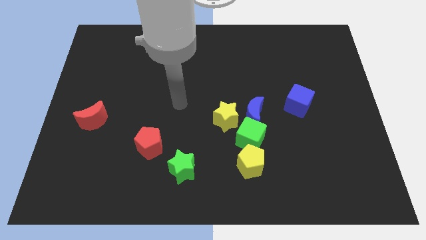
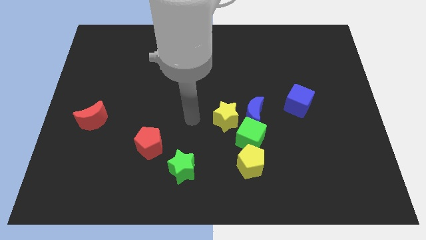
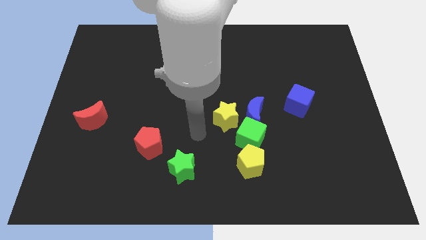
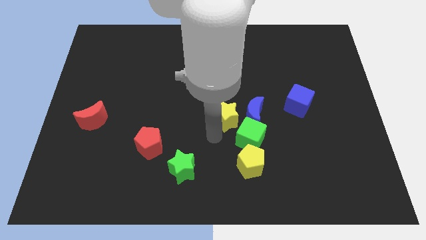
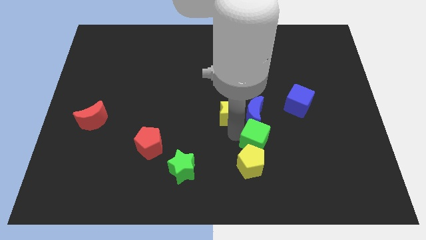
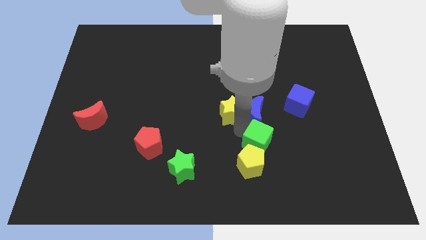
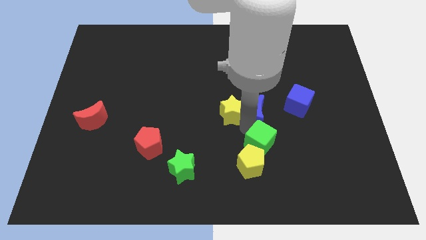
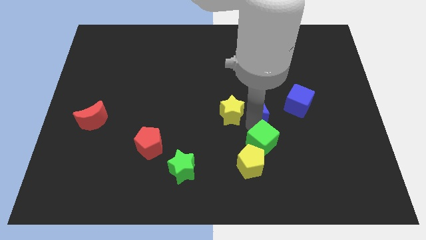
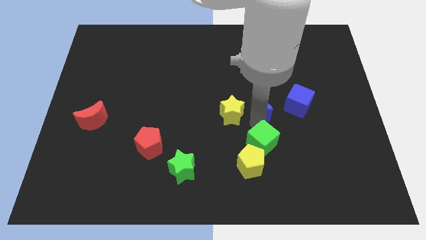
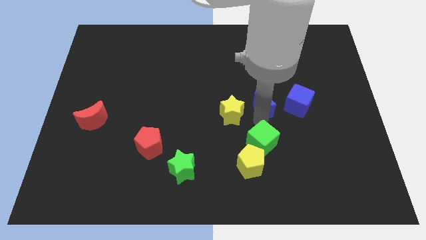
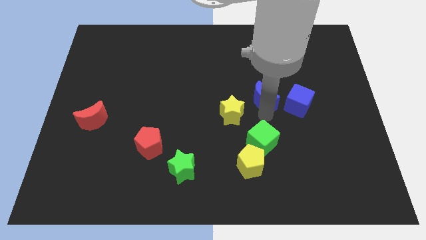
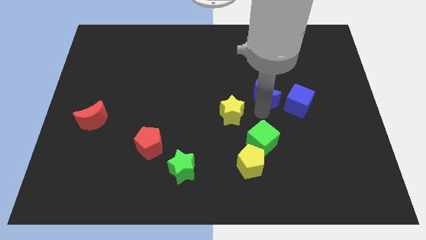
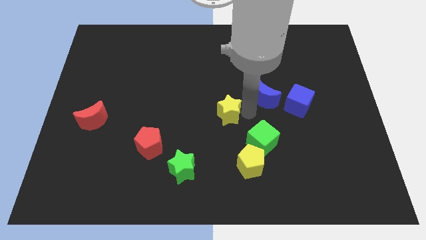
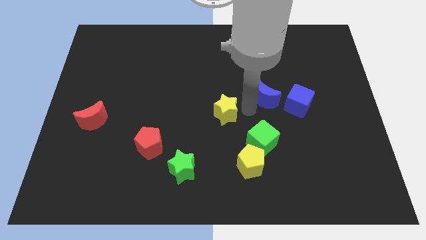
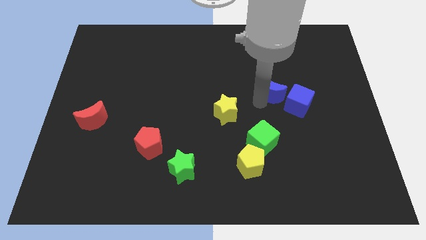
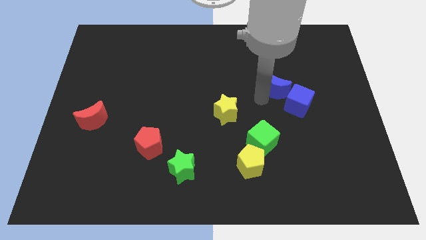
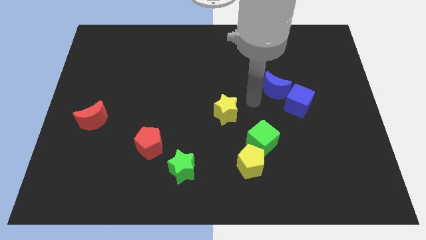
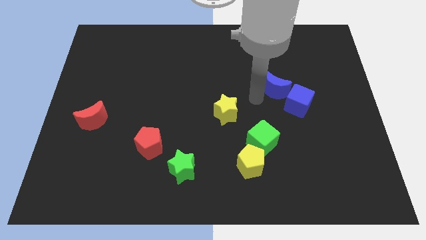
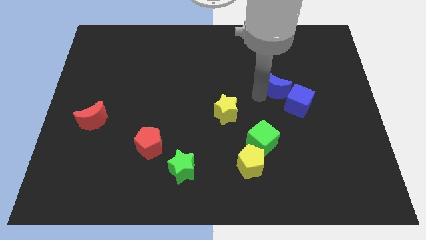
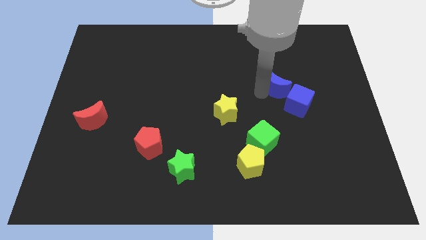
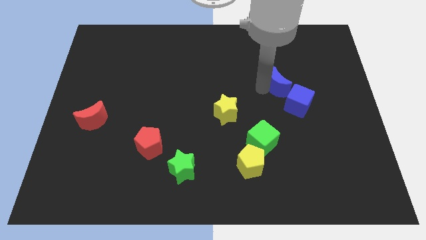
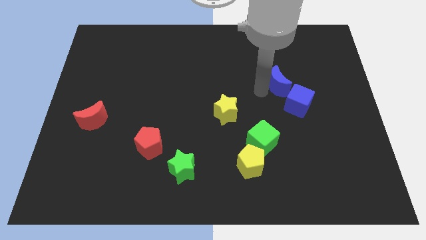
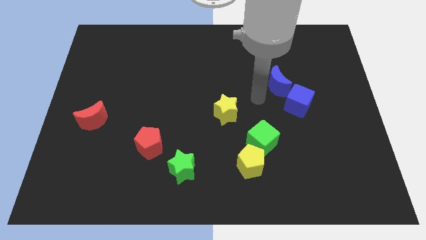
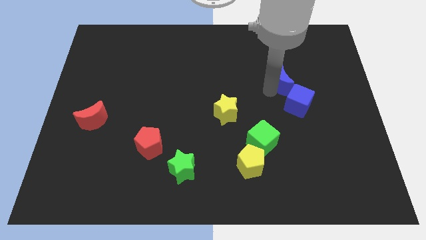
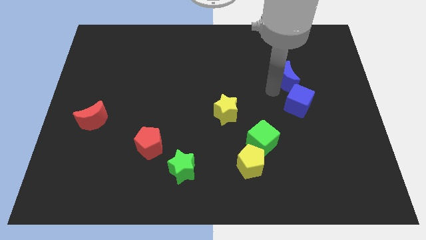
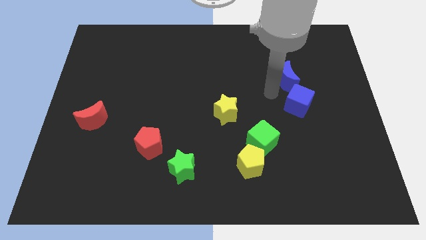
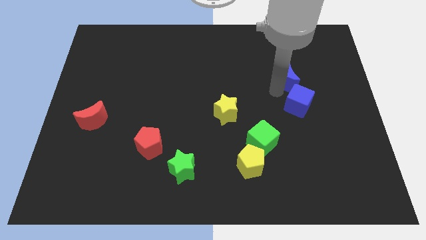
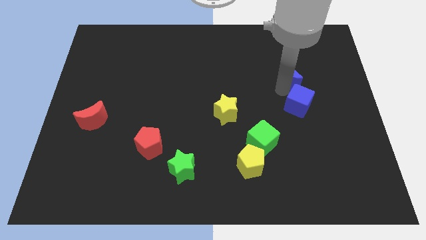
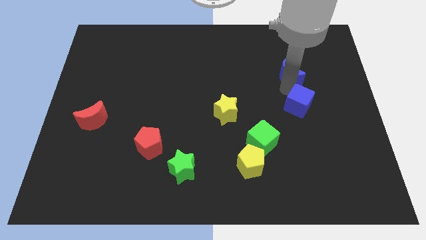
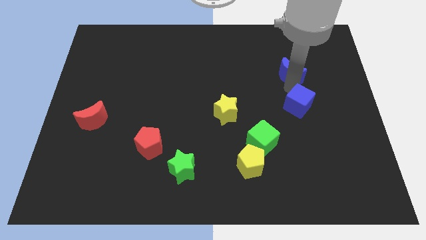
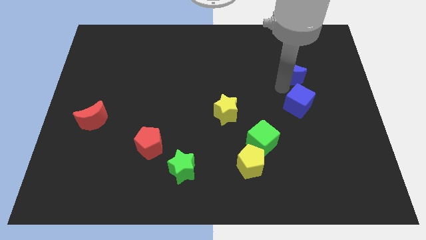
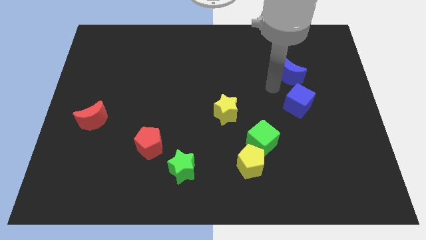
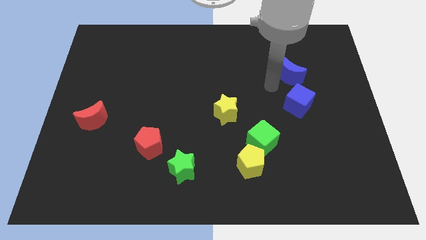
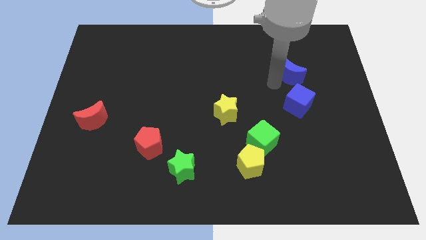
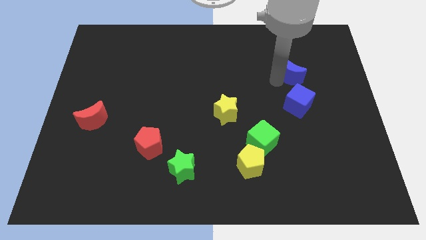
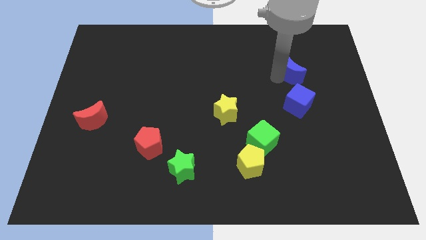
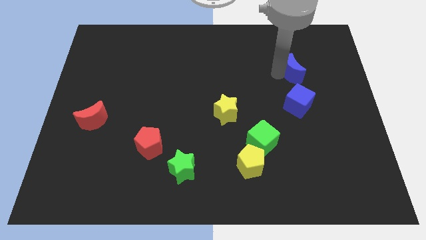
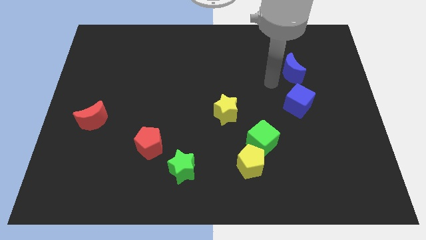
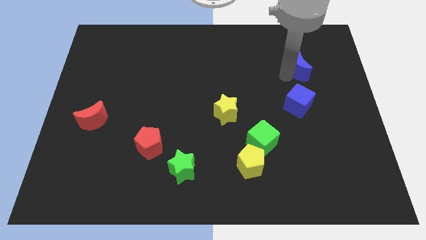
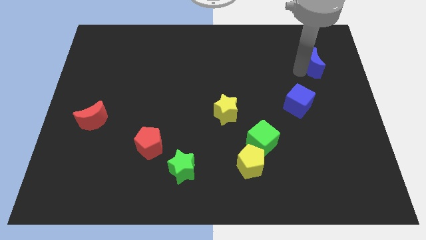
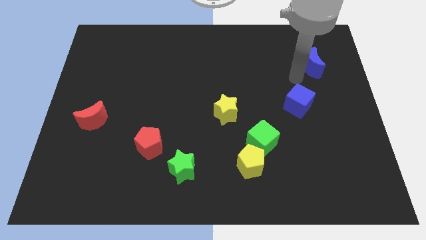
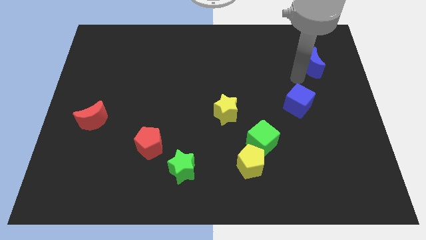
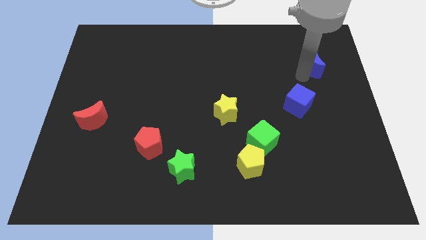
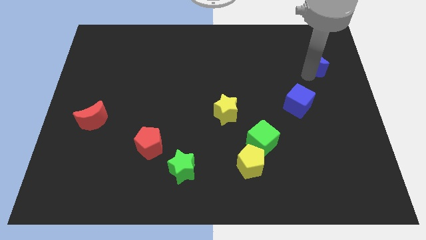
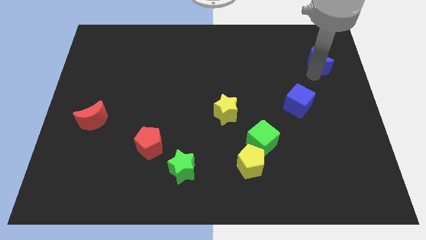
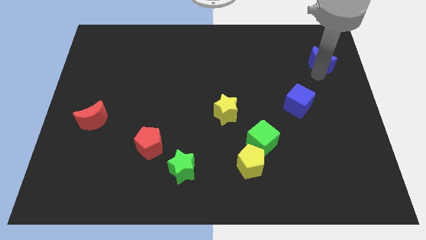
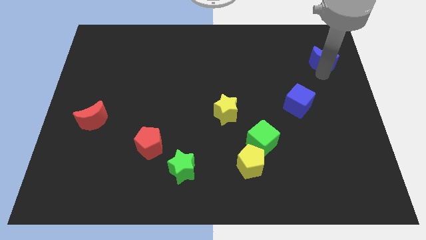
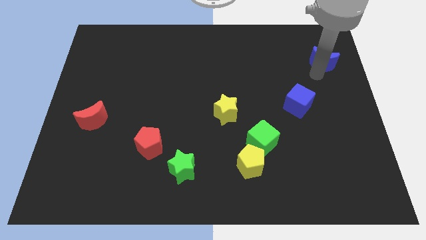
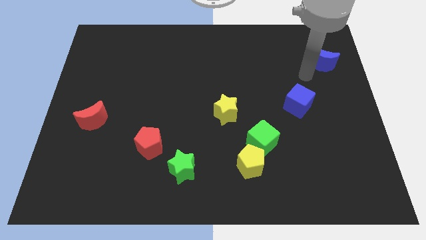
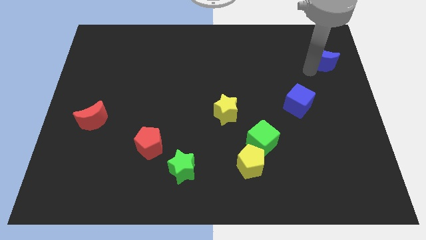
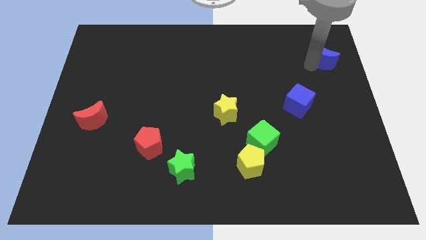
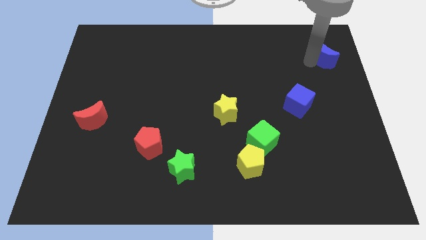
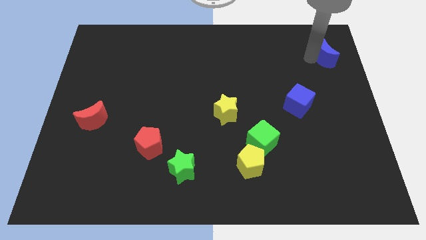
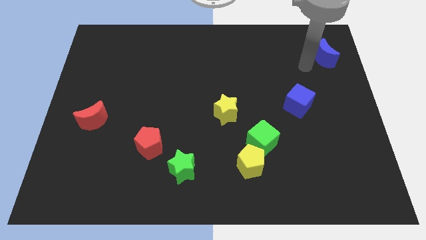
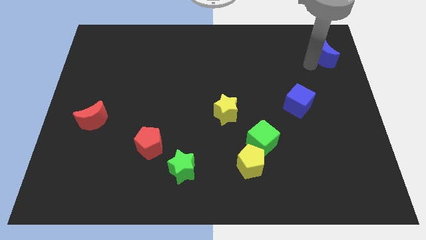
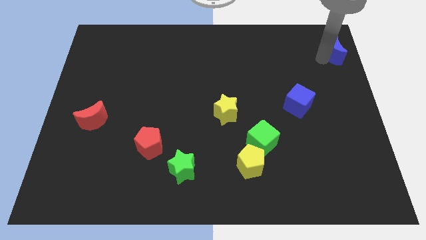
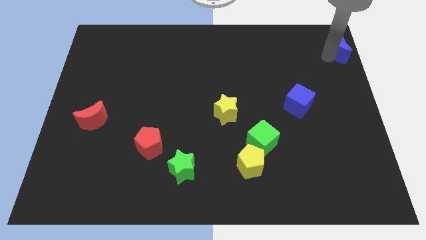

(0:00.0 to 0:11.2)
put the blue moon to the upper right corner
